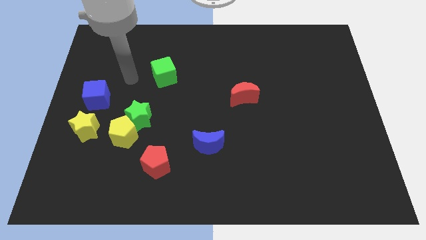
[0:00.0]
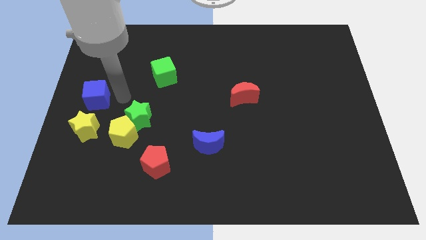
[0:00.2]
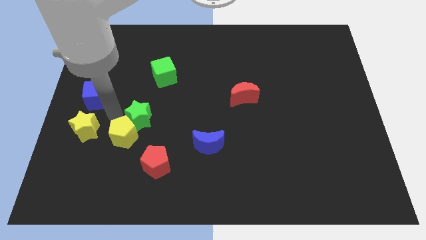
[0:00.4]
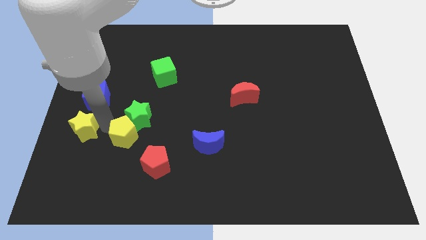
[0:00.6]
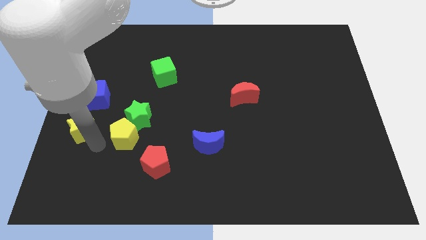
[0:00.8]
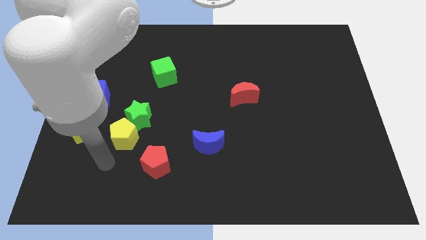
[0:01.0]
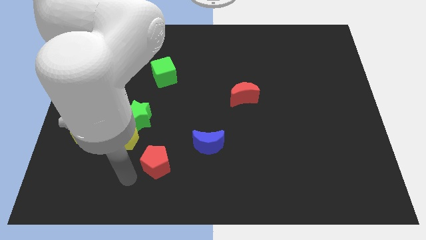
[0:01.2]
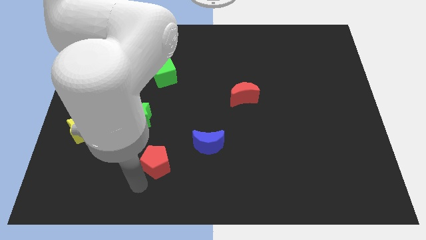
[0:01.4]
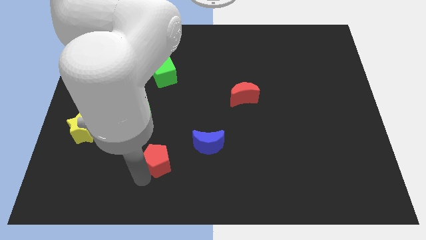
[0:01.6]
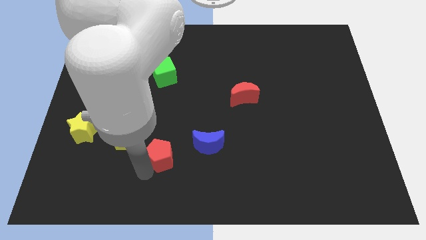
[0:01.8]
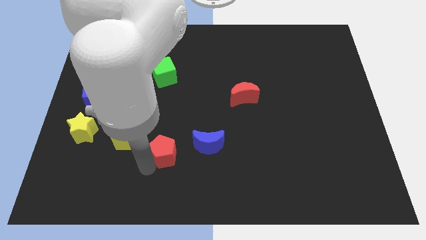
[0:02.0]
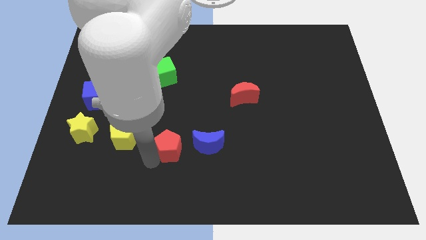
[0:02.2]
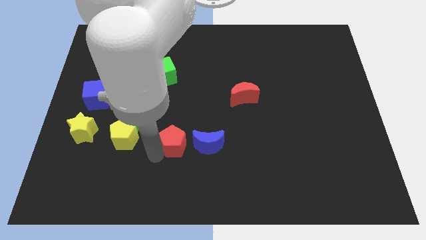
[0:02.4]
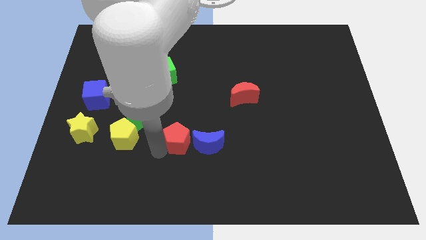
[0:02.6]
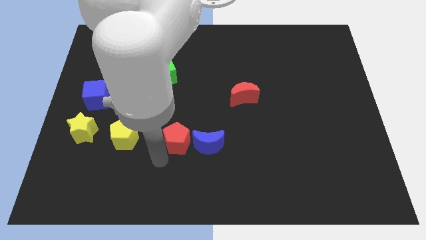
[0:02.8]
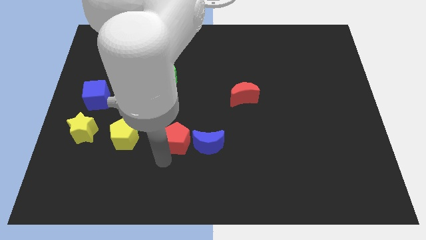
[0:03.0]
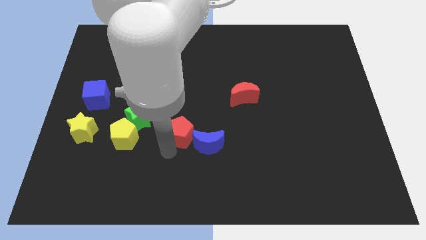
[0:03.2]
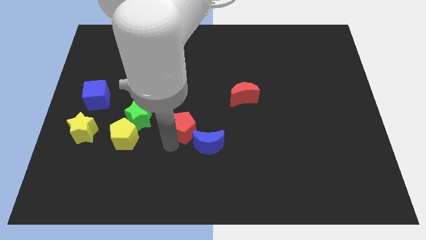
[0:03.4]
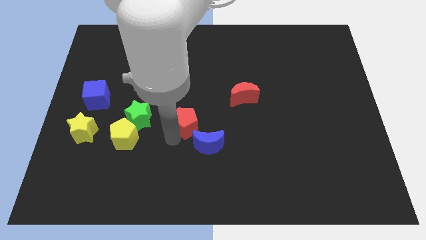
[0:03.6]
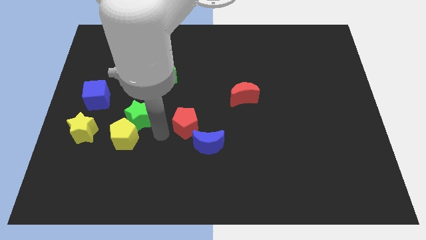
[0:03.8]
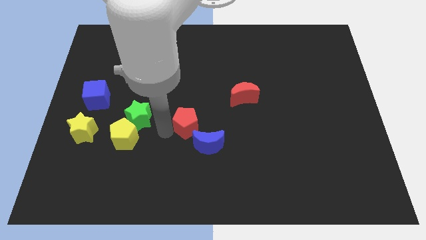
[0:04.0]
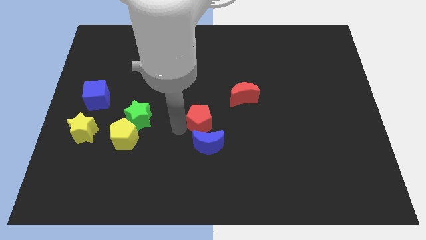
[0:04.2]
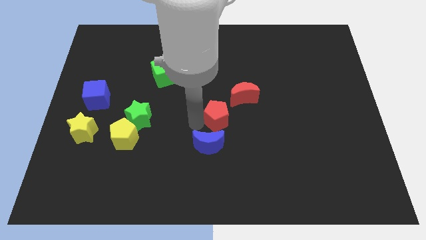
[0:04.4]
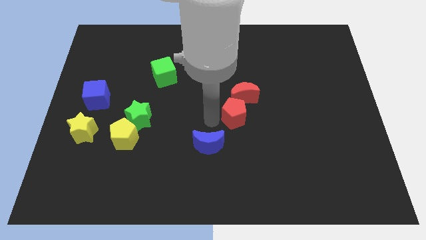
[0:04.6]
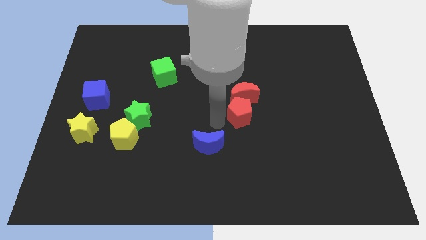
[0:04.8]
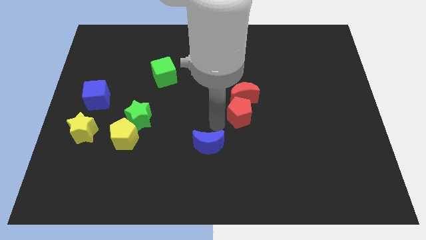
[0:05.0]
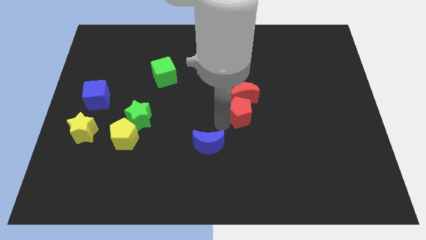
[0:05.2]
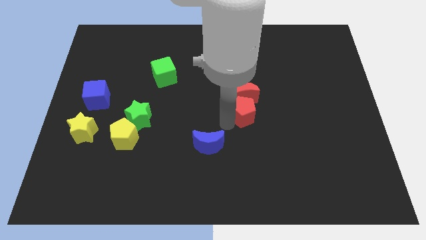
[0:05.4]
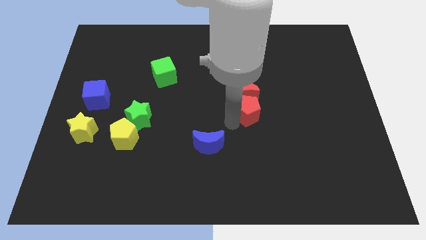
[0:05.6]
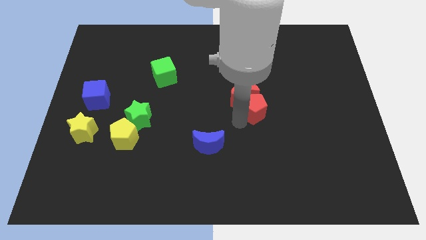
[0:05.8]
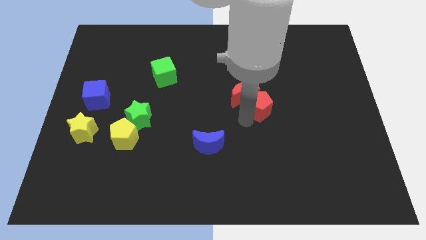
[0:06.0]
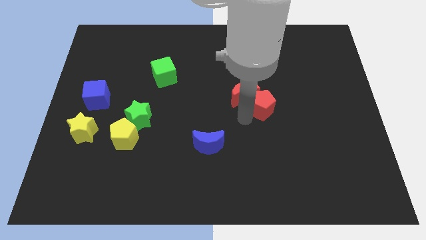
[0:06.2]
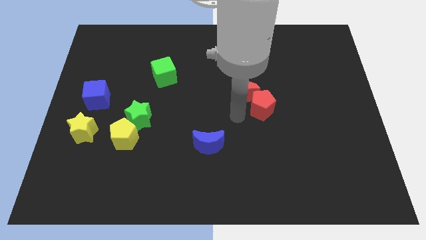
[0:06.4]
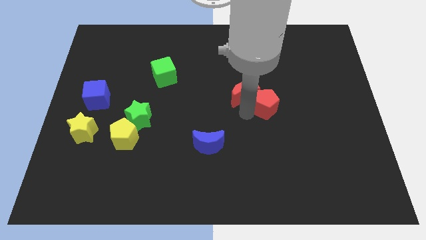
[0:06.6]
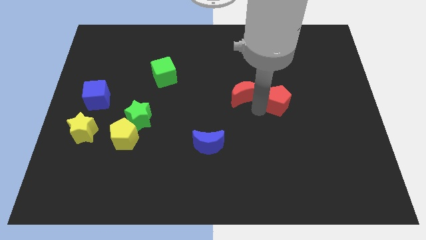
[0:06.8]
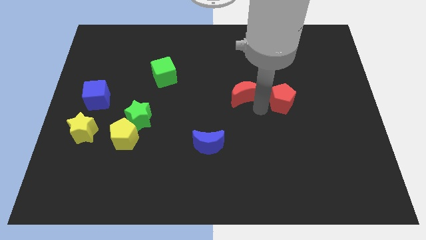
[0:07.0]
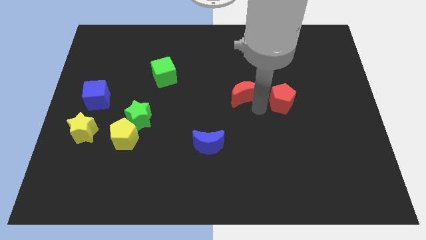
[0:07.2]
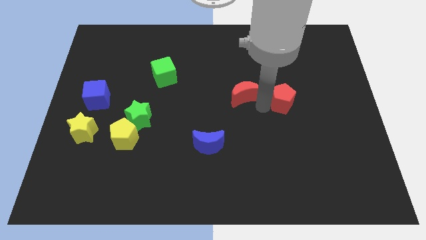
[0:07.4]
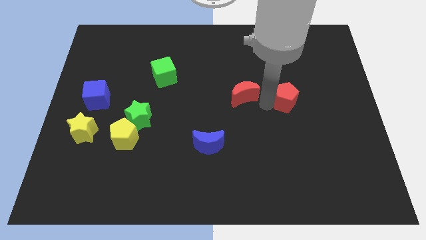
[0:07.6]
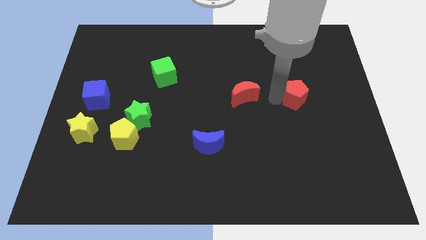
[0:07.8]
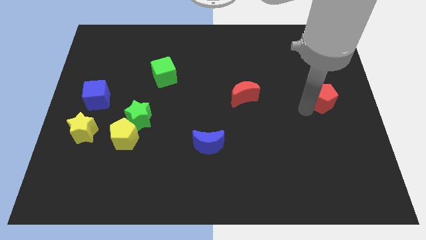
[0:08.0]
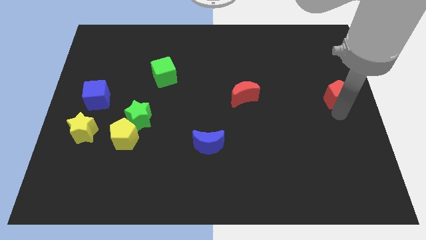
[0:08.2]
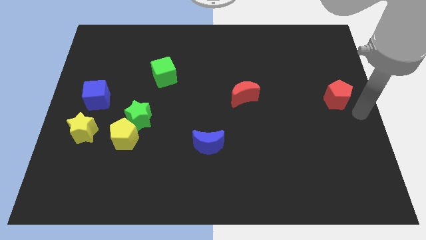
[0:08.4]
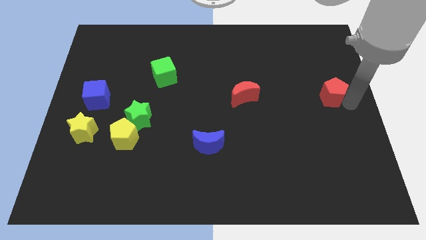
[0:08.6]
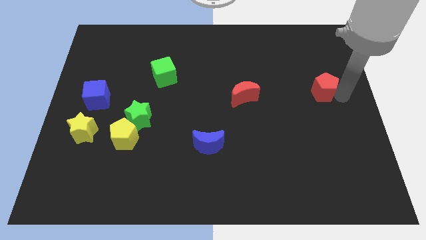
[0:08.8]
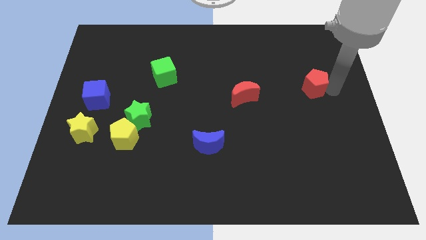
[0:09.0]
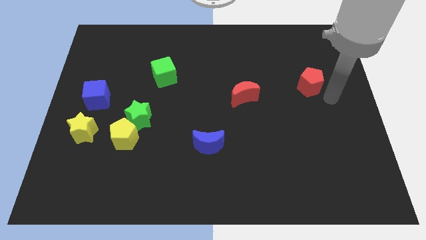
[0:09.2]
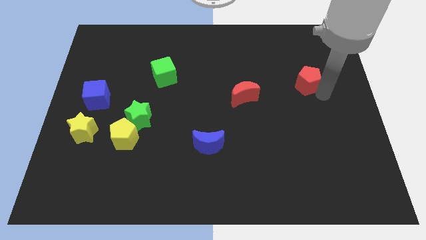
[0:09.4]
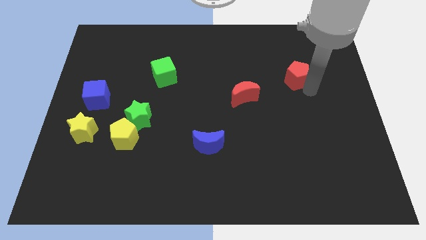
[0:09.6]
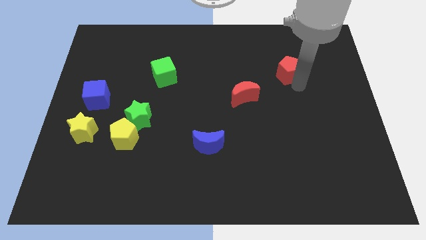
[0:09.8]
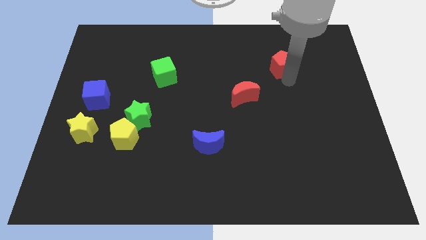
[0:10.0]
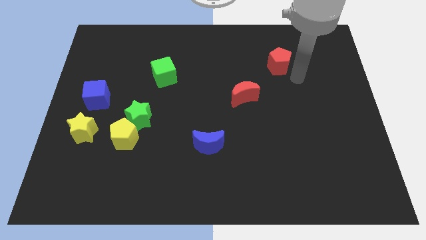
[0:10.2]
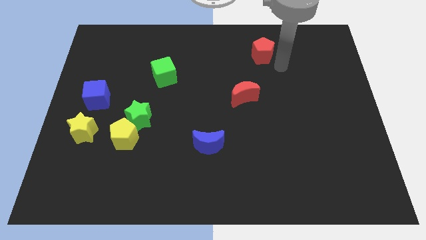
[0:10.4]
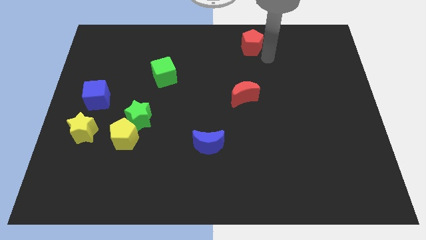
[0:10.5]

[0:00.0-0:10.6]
put the red pentagon to the top

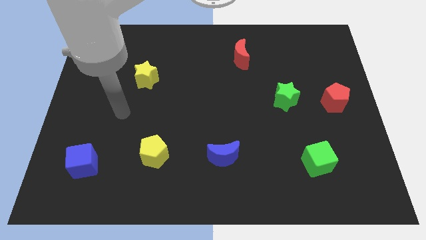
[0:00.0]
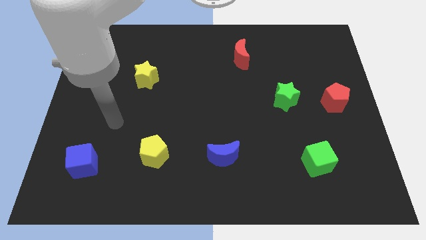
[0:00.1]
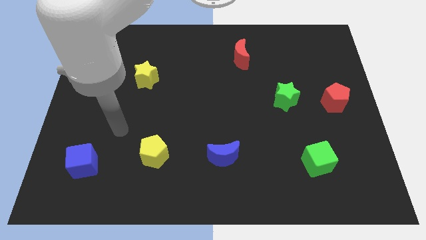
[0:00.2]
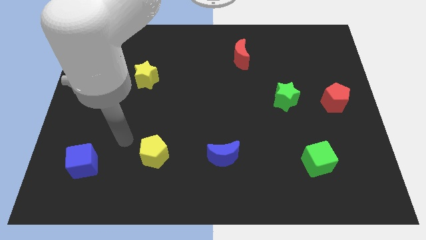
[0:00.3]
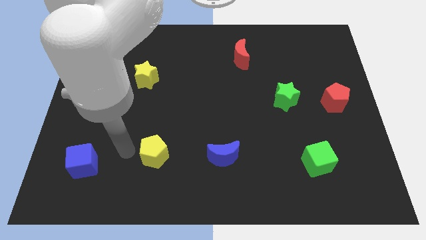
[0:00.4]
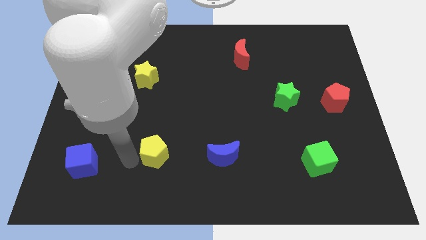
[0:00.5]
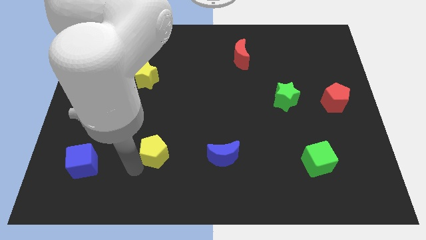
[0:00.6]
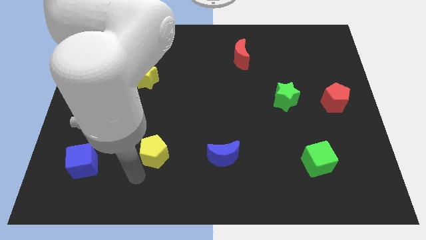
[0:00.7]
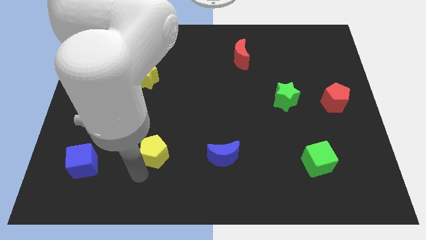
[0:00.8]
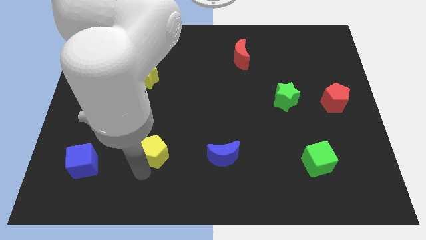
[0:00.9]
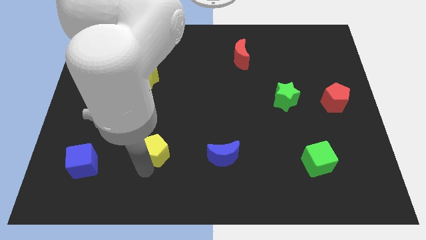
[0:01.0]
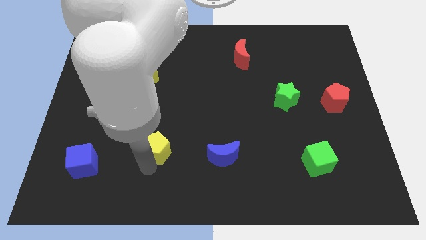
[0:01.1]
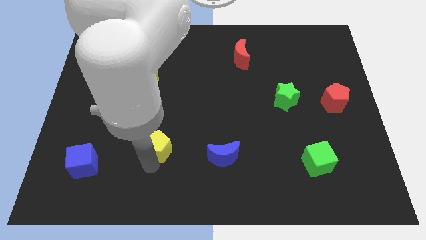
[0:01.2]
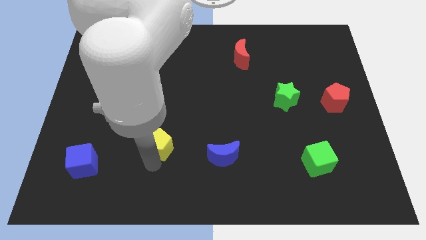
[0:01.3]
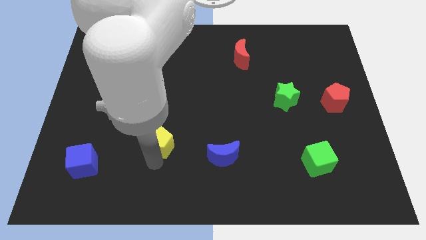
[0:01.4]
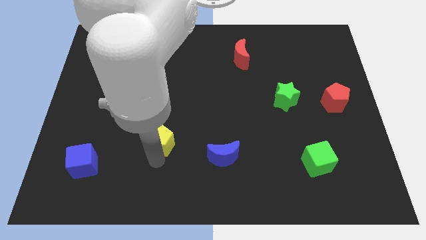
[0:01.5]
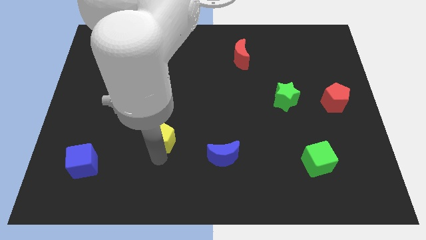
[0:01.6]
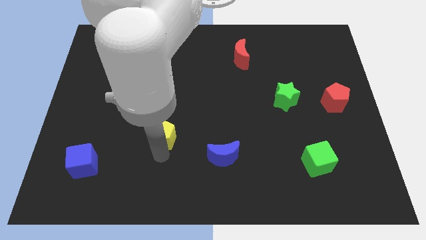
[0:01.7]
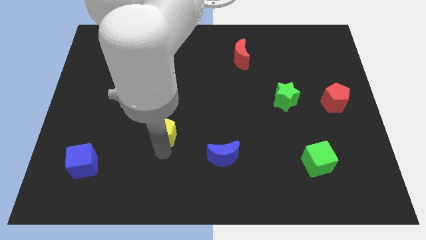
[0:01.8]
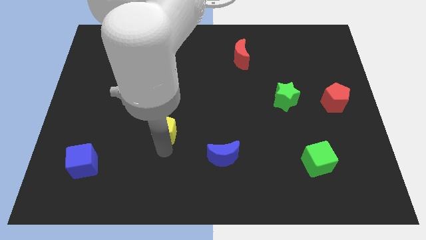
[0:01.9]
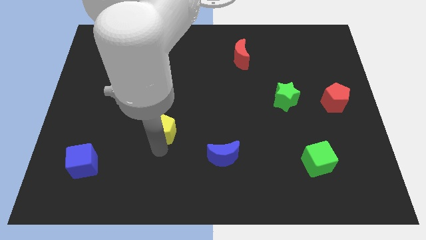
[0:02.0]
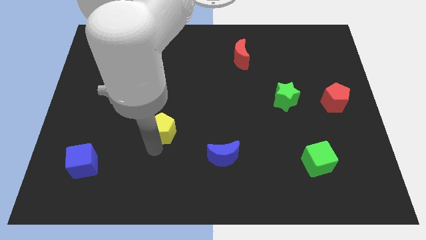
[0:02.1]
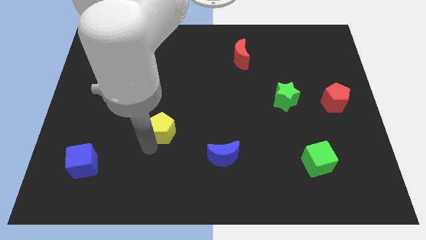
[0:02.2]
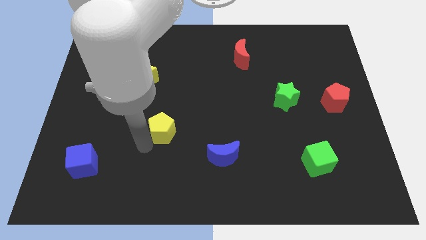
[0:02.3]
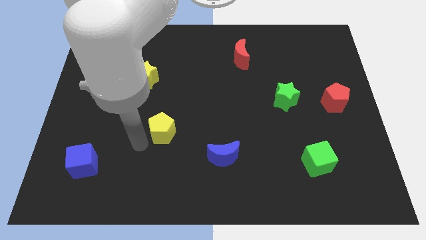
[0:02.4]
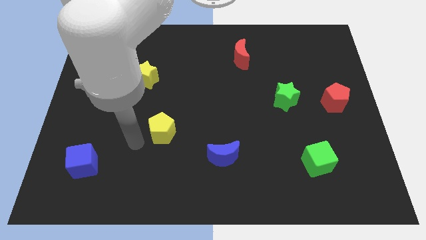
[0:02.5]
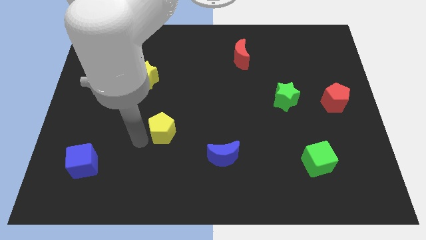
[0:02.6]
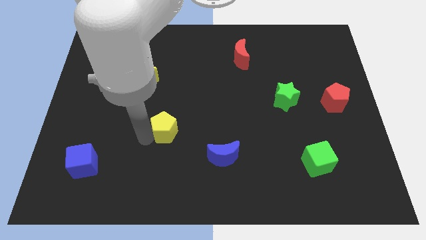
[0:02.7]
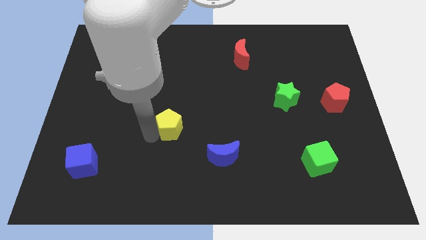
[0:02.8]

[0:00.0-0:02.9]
slide the yellow pentagon to the center
